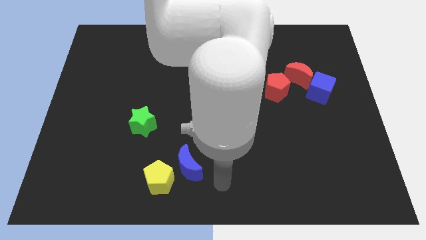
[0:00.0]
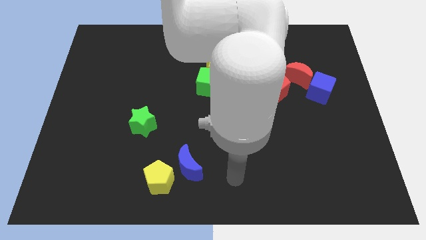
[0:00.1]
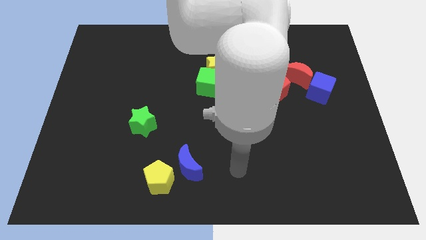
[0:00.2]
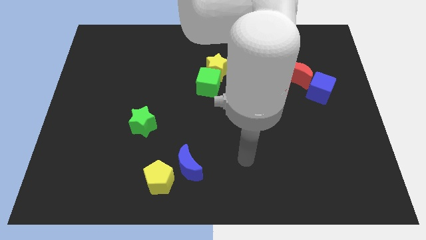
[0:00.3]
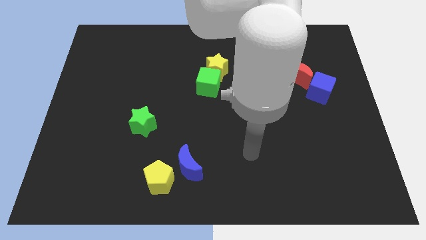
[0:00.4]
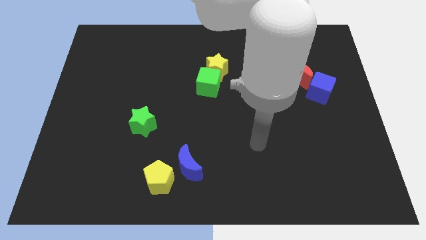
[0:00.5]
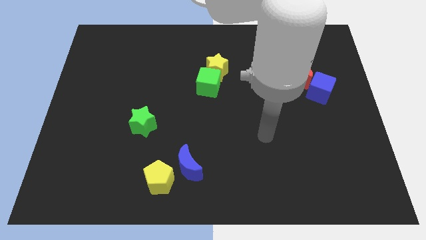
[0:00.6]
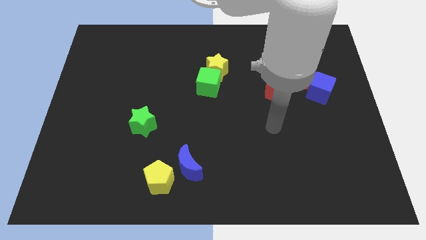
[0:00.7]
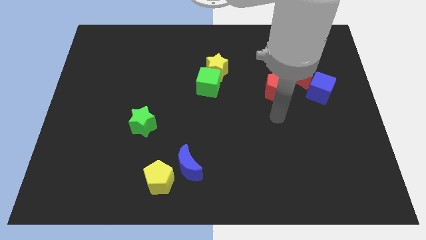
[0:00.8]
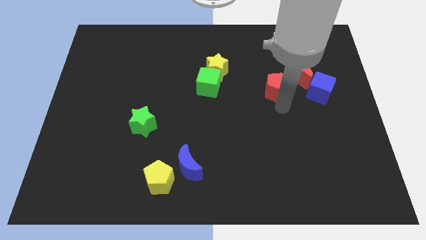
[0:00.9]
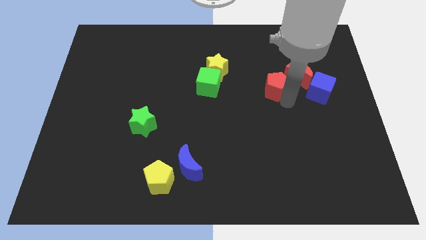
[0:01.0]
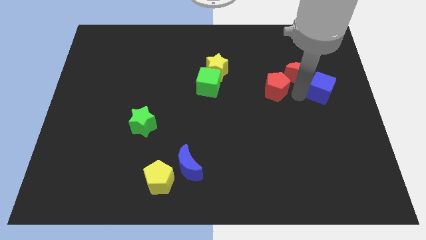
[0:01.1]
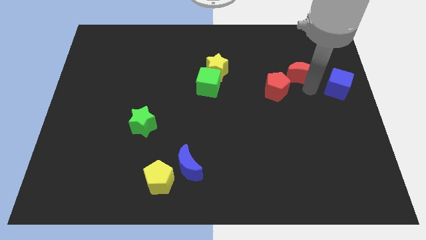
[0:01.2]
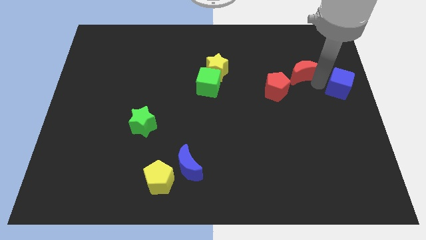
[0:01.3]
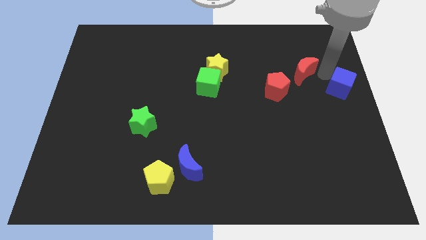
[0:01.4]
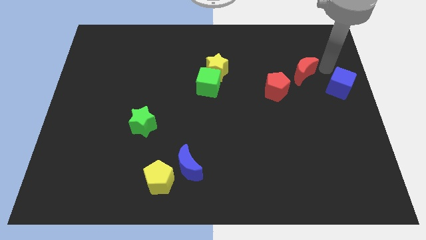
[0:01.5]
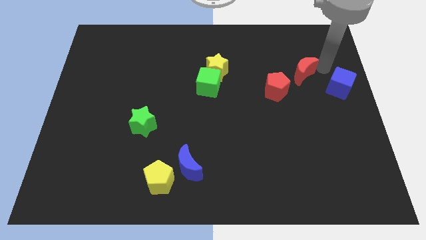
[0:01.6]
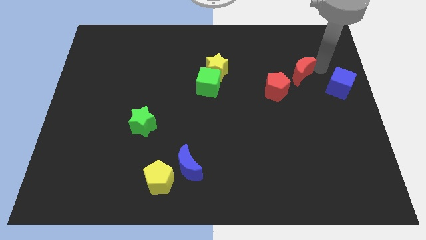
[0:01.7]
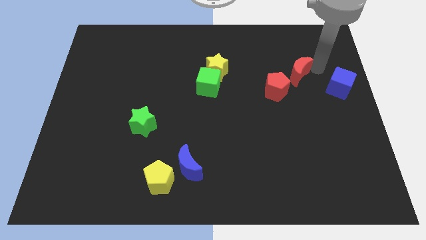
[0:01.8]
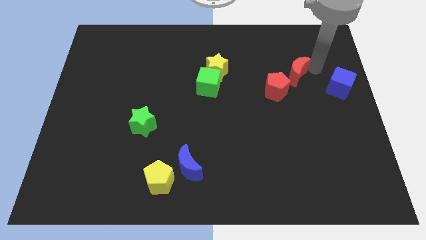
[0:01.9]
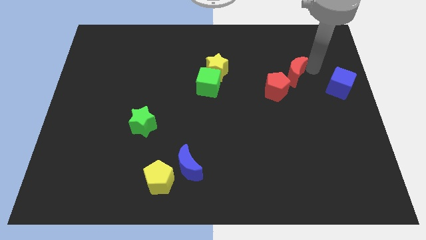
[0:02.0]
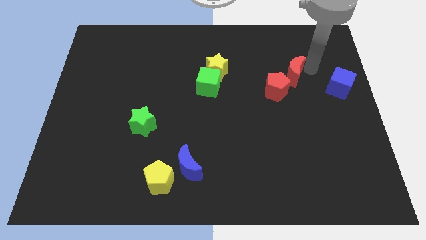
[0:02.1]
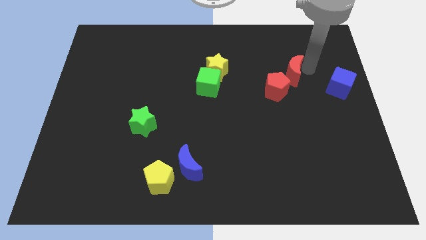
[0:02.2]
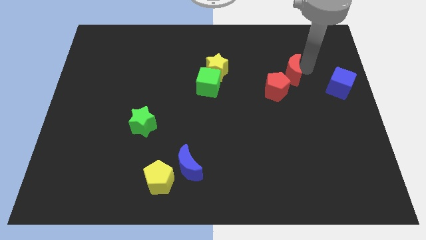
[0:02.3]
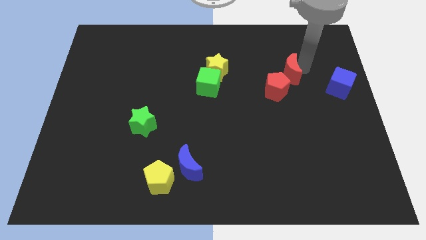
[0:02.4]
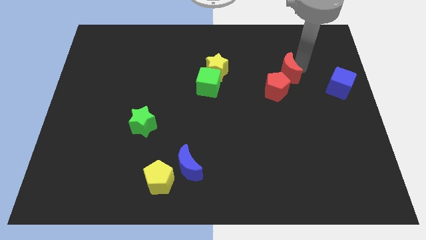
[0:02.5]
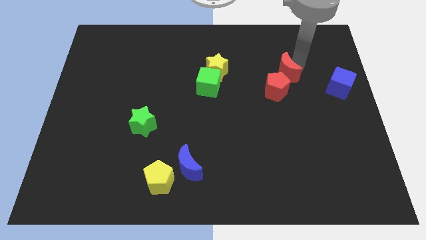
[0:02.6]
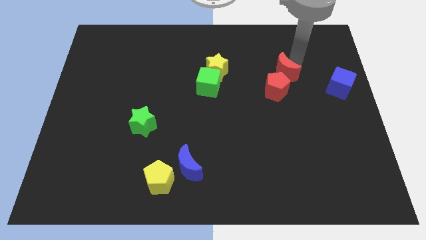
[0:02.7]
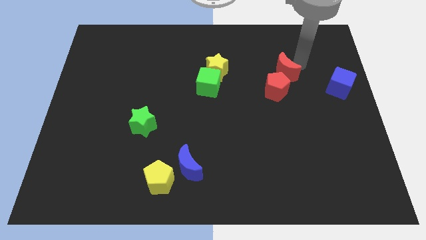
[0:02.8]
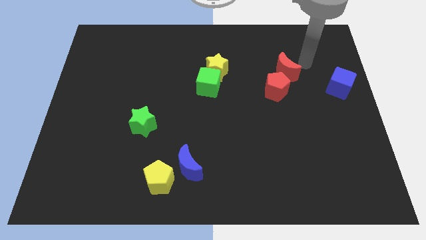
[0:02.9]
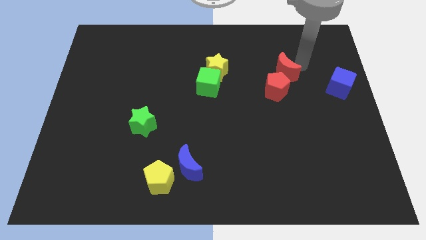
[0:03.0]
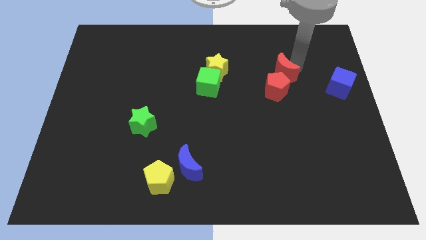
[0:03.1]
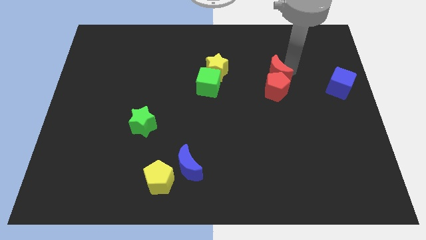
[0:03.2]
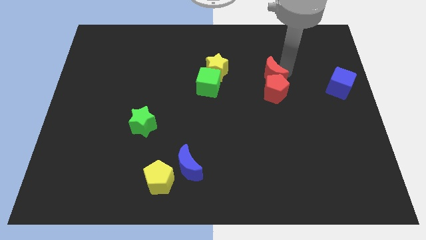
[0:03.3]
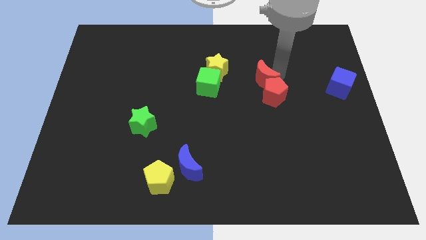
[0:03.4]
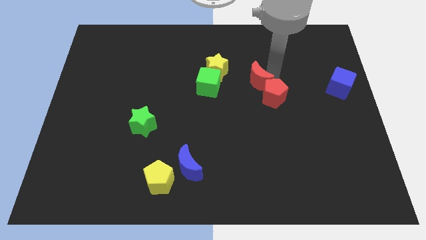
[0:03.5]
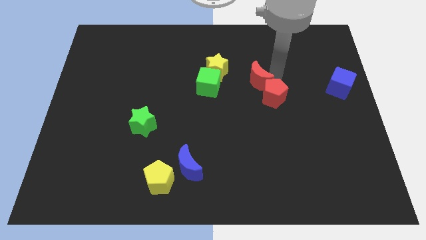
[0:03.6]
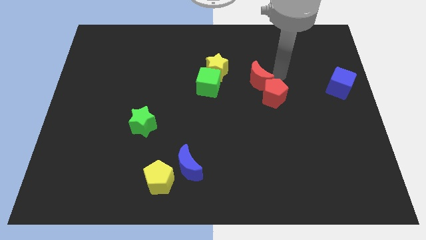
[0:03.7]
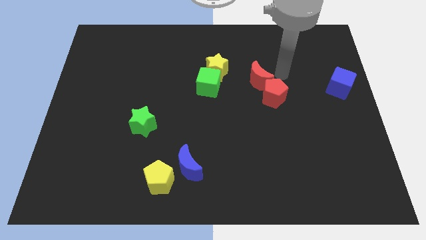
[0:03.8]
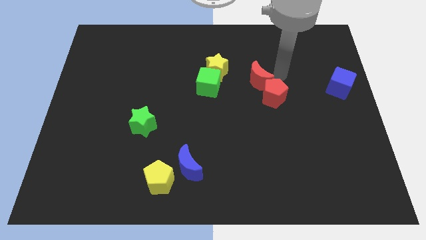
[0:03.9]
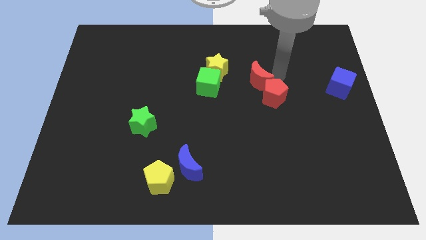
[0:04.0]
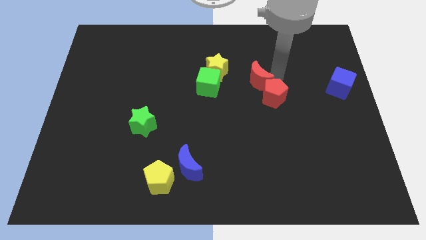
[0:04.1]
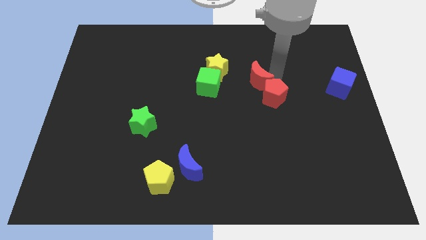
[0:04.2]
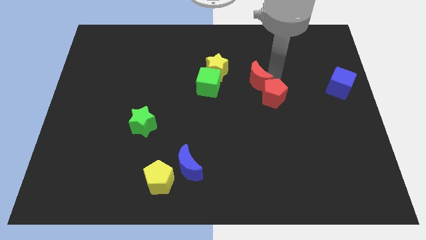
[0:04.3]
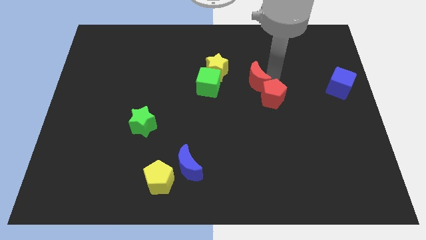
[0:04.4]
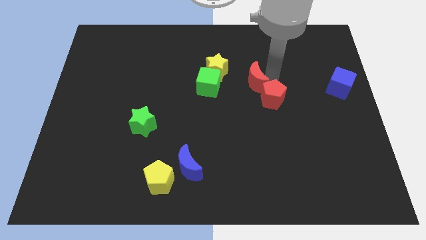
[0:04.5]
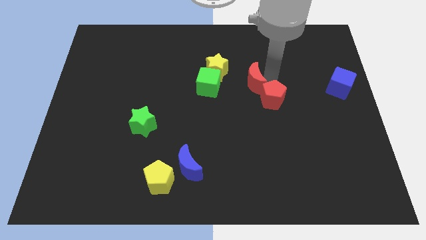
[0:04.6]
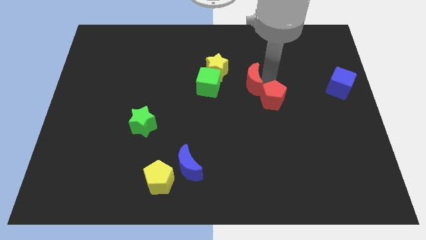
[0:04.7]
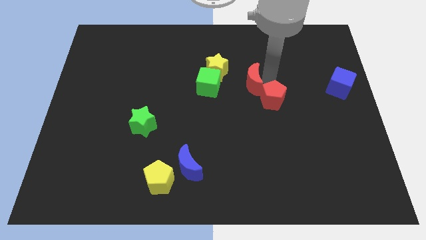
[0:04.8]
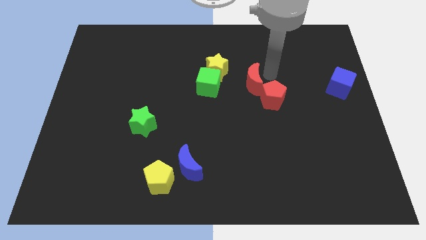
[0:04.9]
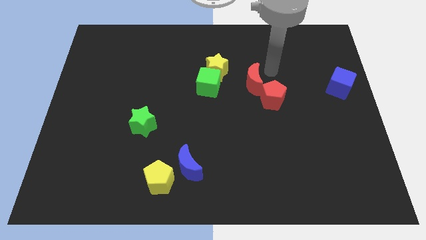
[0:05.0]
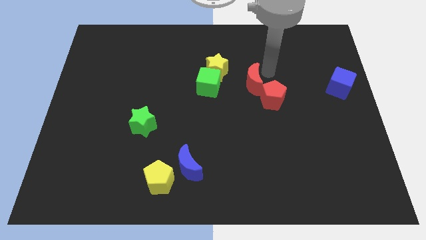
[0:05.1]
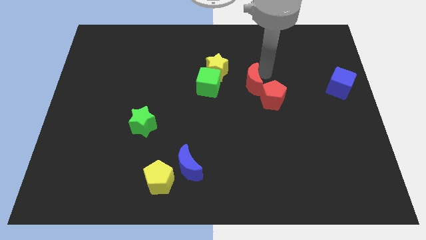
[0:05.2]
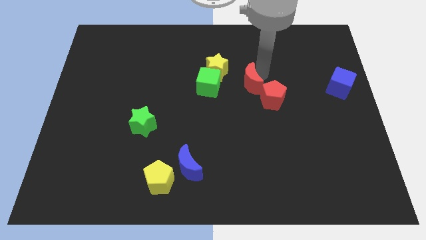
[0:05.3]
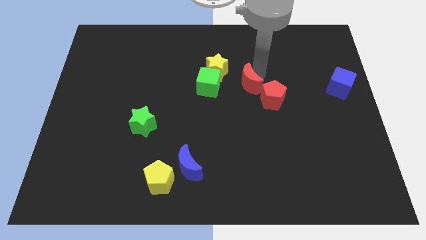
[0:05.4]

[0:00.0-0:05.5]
put the red moon to the left of the red pentagon

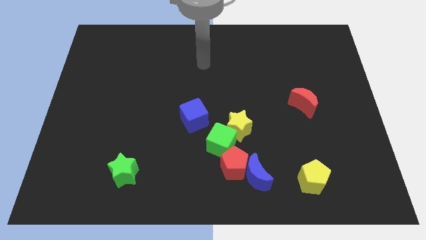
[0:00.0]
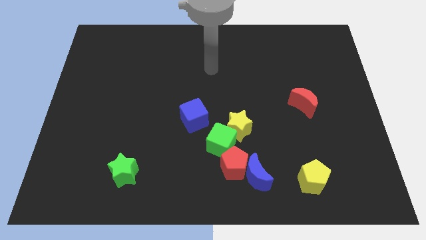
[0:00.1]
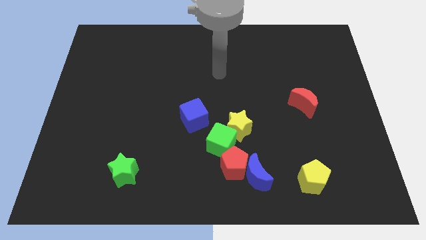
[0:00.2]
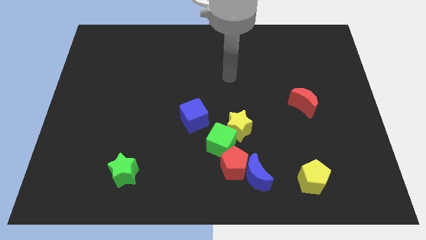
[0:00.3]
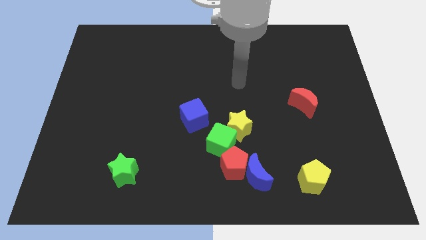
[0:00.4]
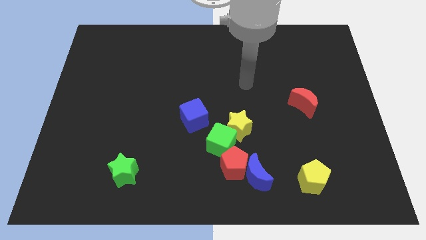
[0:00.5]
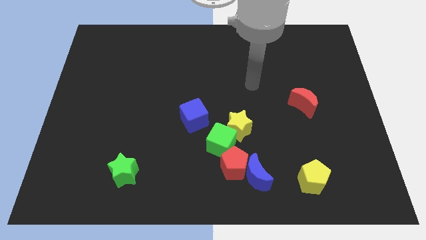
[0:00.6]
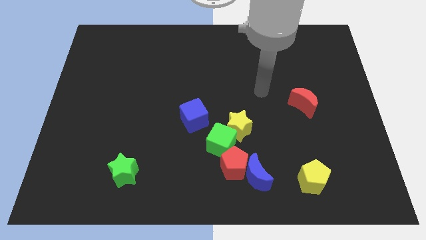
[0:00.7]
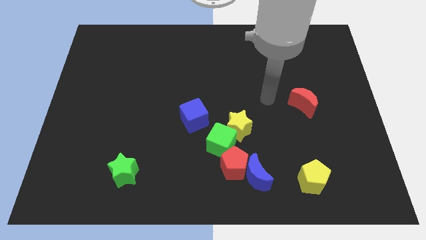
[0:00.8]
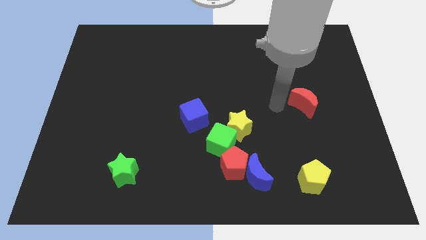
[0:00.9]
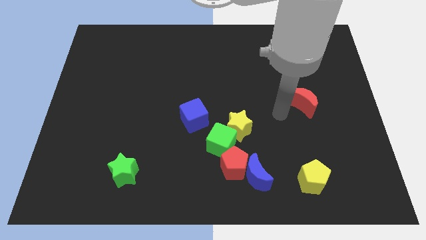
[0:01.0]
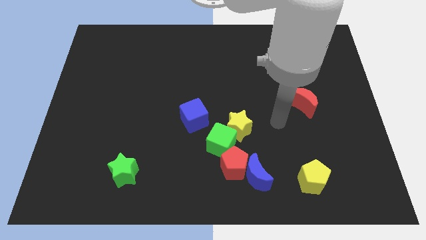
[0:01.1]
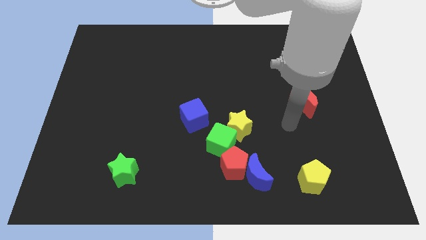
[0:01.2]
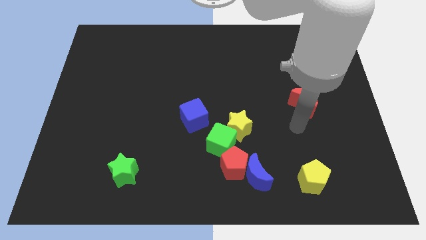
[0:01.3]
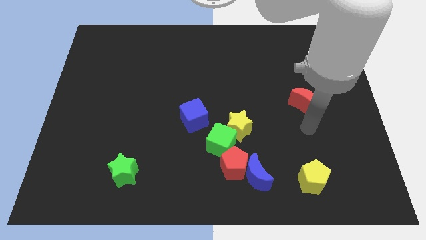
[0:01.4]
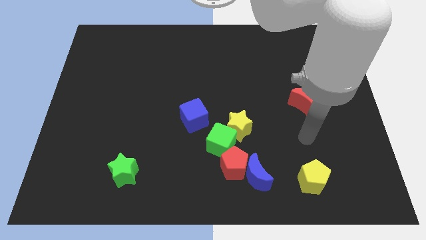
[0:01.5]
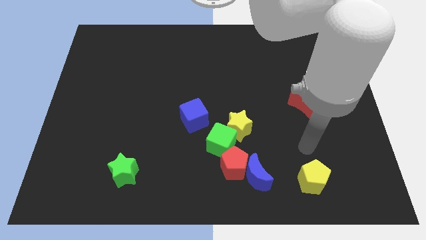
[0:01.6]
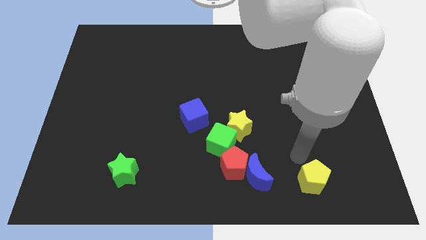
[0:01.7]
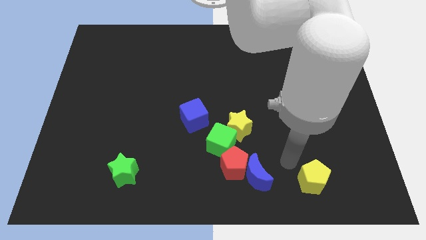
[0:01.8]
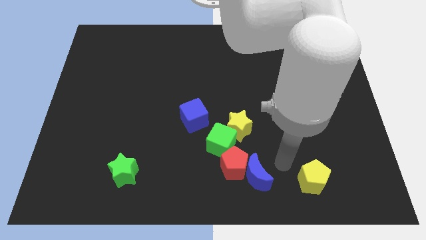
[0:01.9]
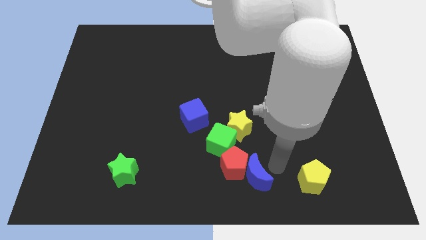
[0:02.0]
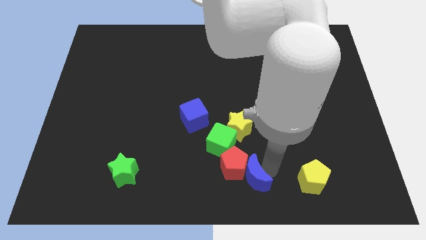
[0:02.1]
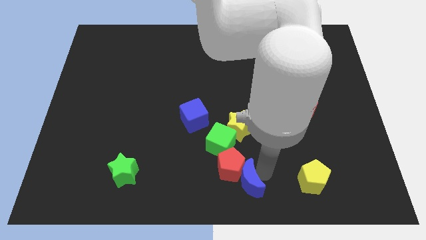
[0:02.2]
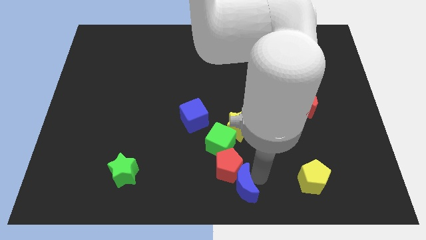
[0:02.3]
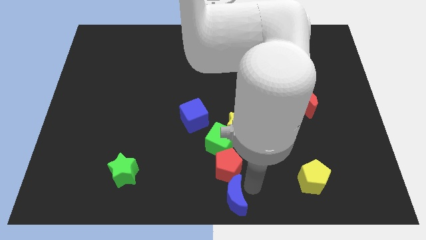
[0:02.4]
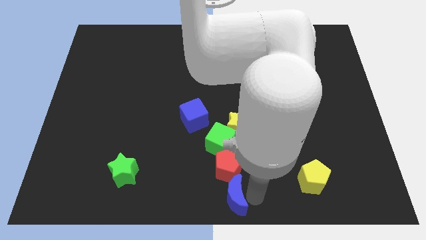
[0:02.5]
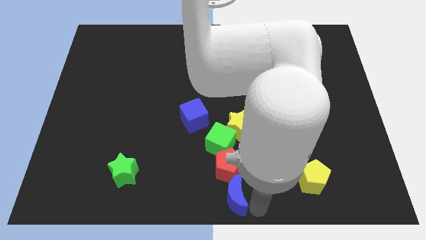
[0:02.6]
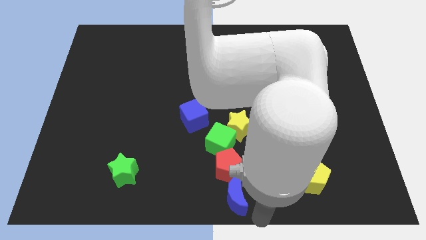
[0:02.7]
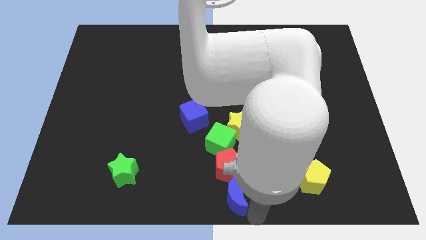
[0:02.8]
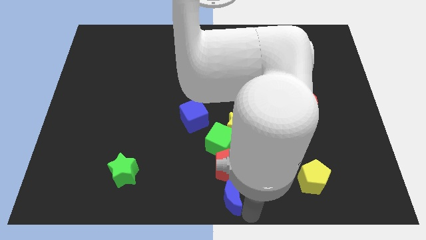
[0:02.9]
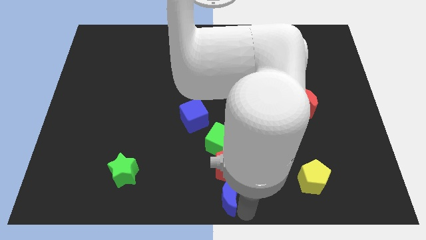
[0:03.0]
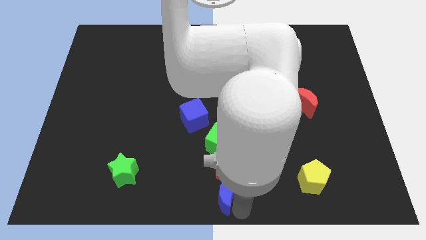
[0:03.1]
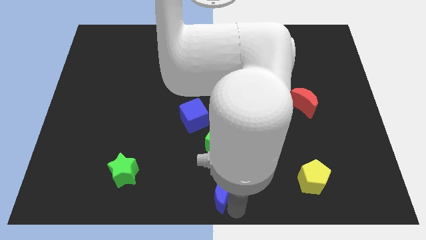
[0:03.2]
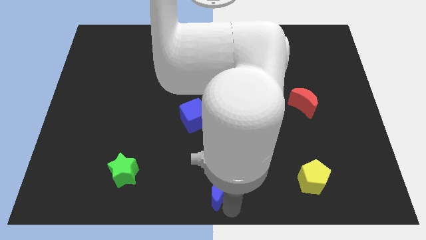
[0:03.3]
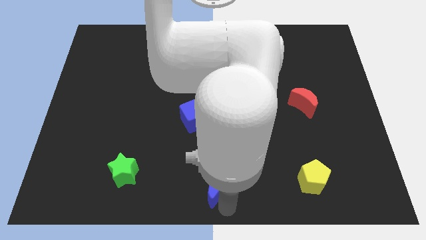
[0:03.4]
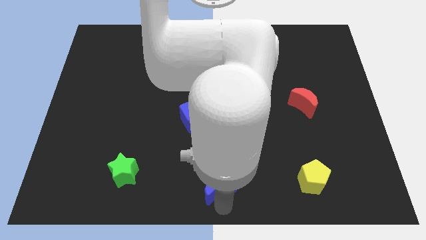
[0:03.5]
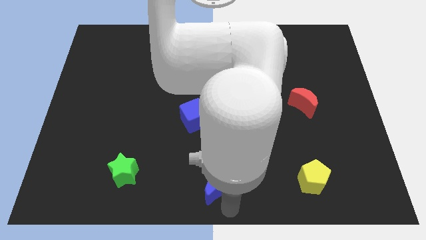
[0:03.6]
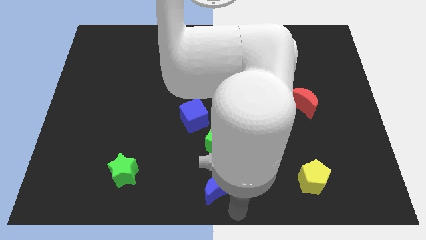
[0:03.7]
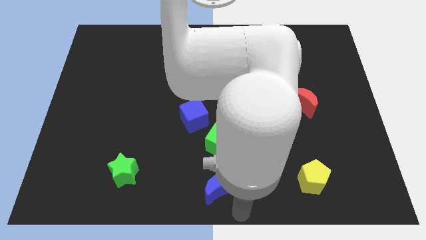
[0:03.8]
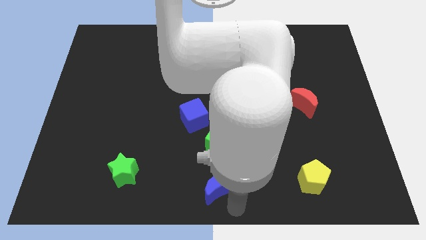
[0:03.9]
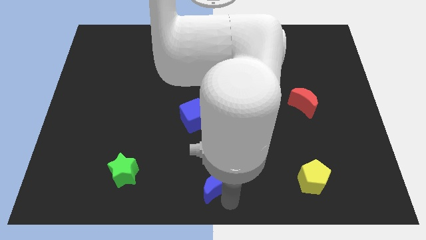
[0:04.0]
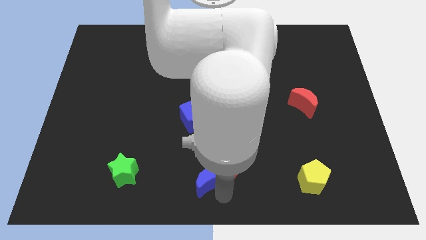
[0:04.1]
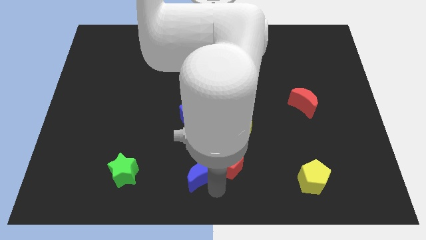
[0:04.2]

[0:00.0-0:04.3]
put the blue moon diagonally down and to the left of the green cube
